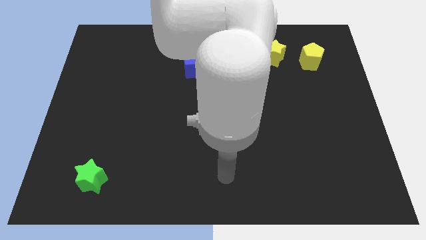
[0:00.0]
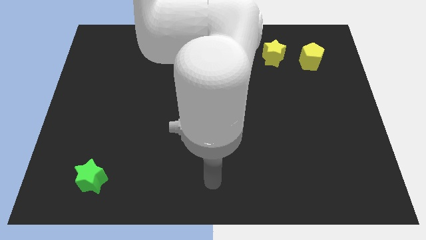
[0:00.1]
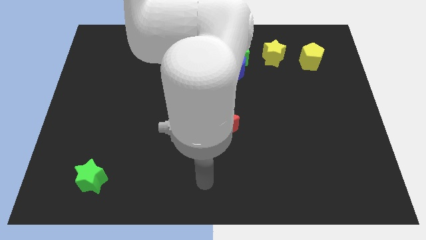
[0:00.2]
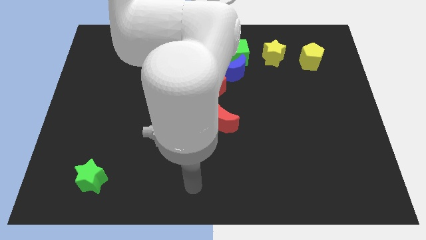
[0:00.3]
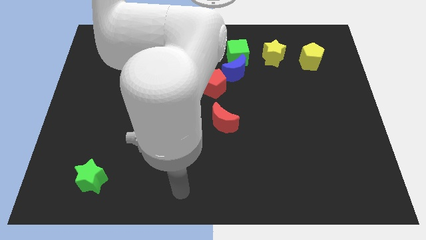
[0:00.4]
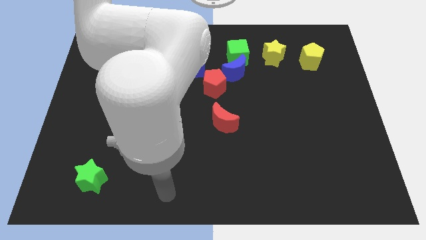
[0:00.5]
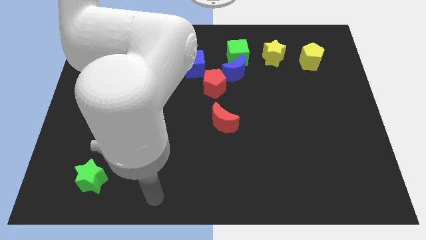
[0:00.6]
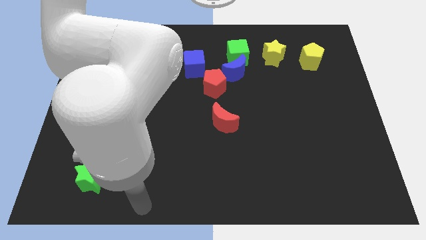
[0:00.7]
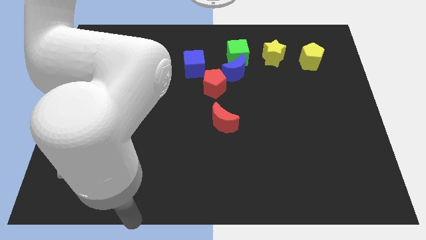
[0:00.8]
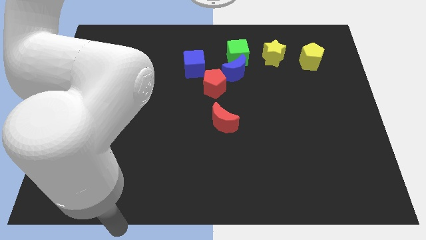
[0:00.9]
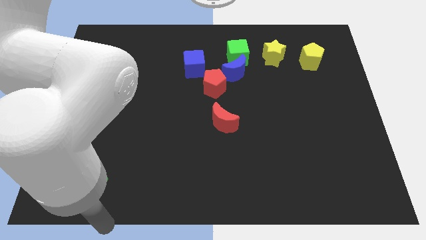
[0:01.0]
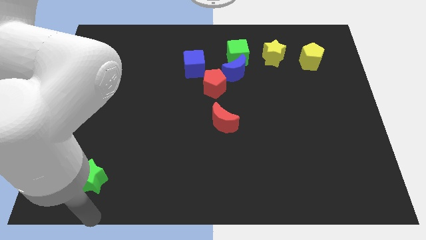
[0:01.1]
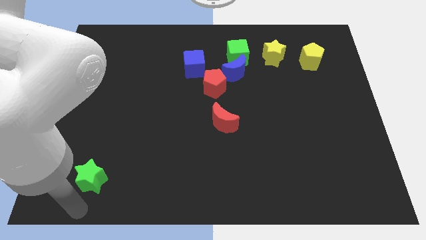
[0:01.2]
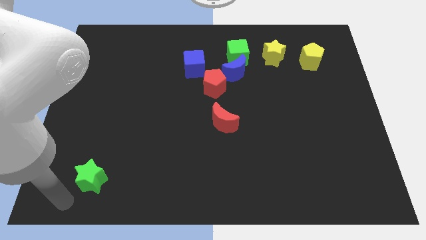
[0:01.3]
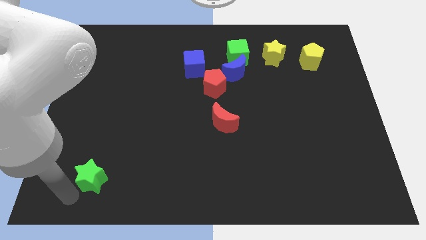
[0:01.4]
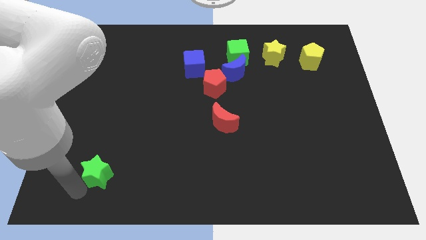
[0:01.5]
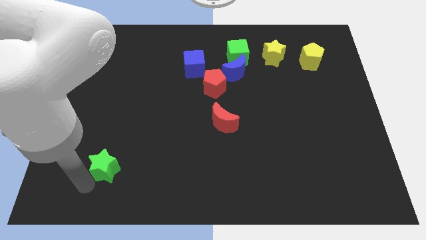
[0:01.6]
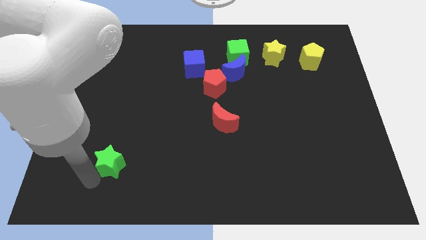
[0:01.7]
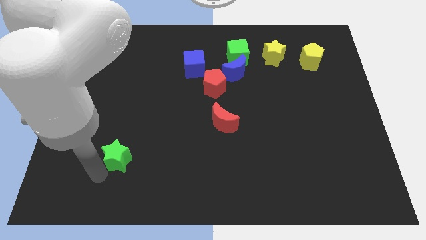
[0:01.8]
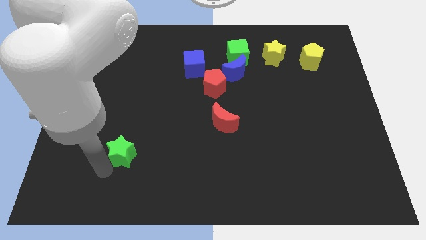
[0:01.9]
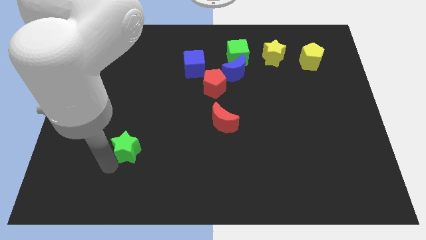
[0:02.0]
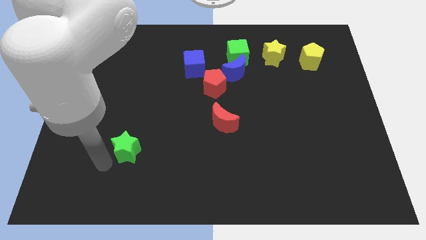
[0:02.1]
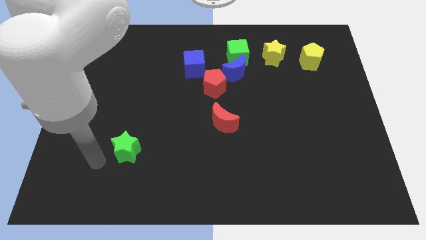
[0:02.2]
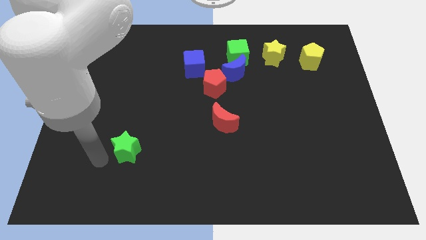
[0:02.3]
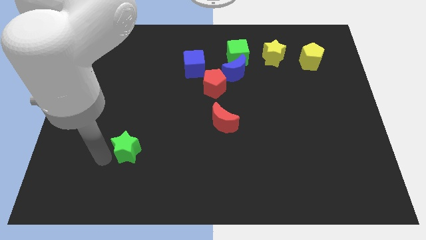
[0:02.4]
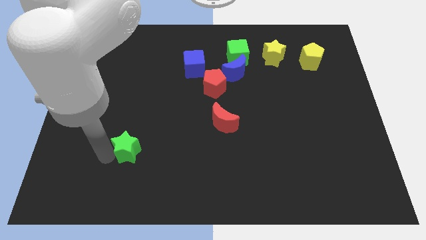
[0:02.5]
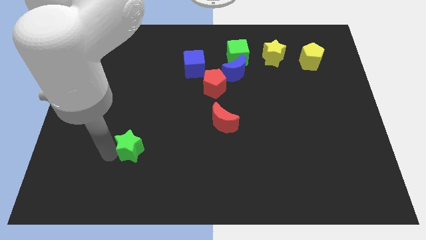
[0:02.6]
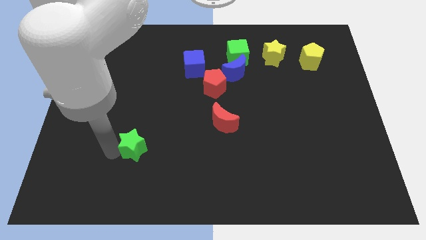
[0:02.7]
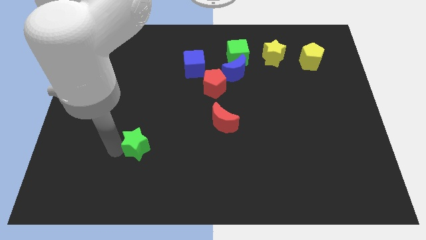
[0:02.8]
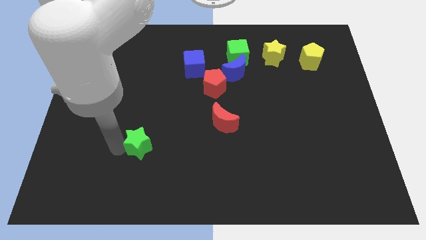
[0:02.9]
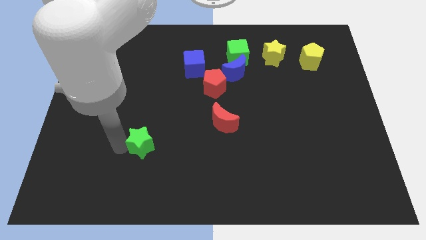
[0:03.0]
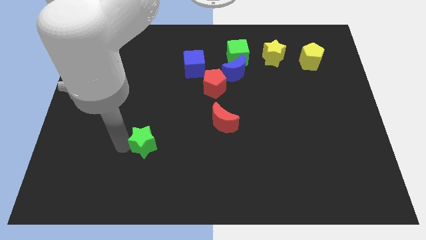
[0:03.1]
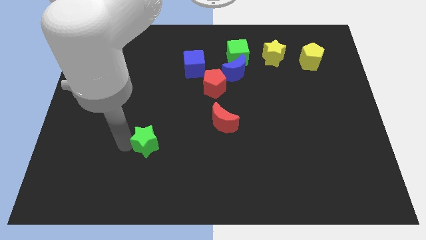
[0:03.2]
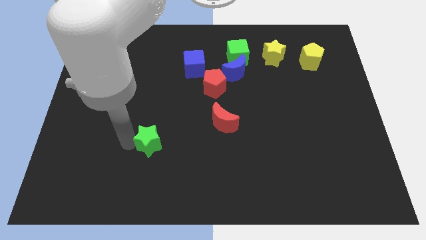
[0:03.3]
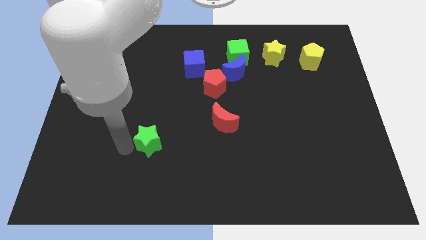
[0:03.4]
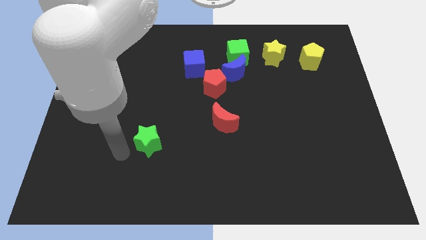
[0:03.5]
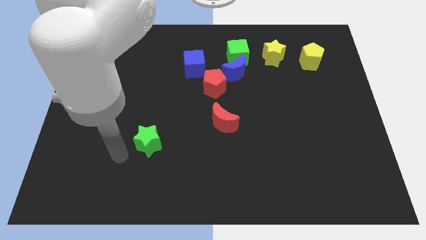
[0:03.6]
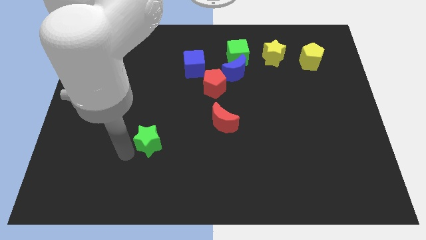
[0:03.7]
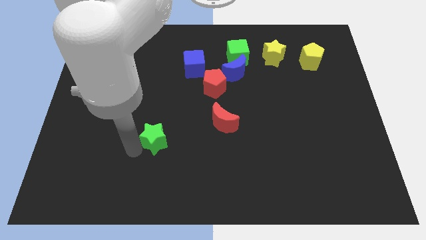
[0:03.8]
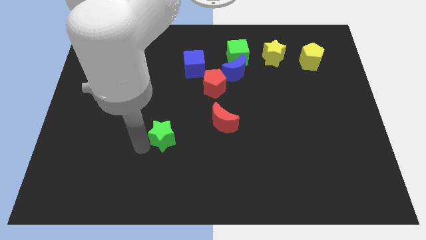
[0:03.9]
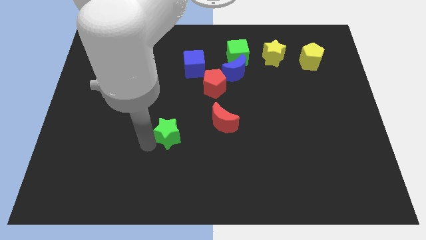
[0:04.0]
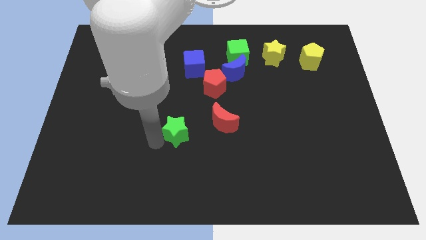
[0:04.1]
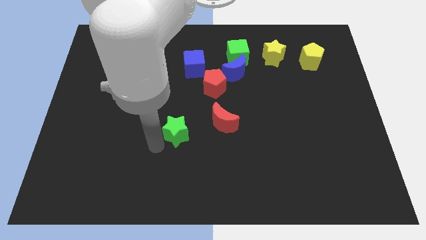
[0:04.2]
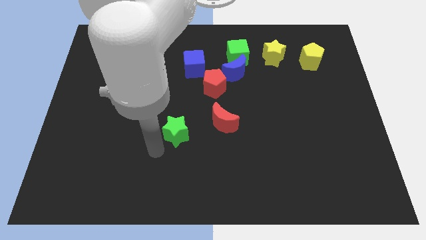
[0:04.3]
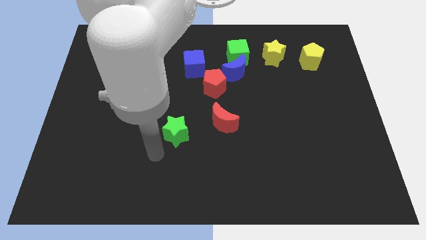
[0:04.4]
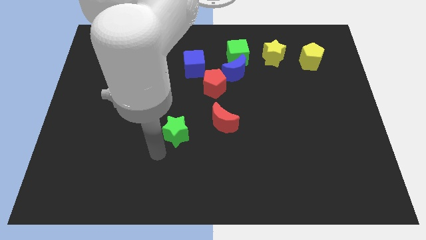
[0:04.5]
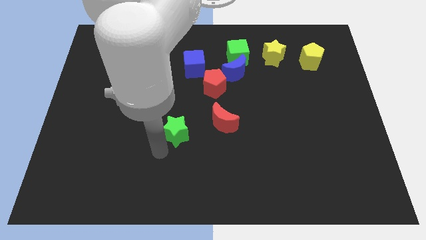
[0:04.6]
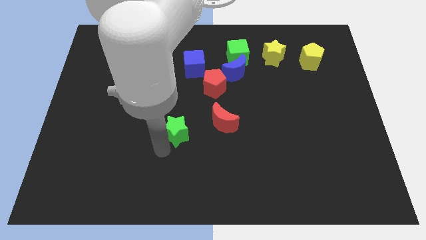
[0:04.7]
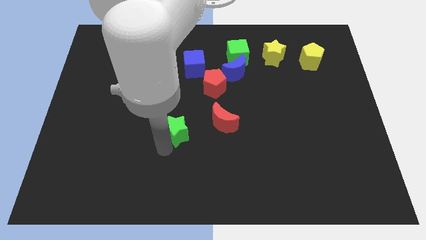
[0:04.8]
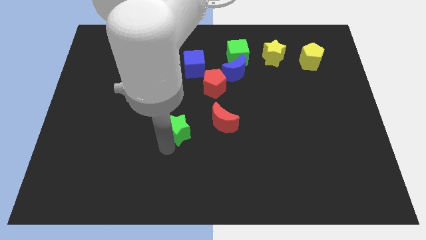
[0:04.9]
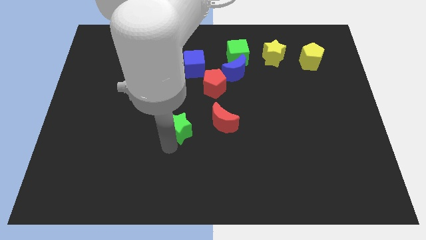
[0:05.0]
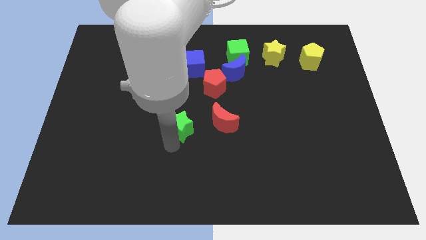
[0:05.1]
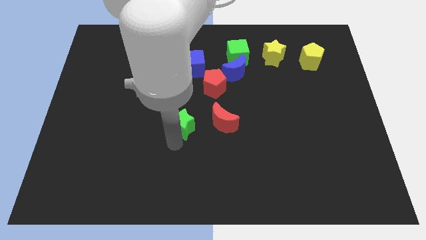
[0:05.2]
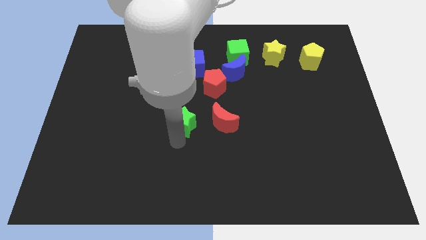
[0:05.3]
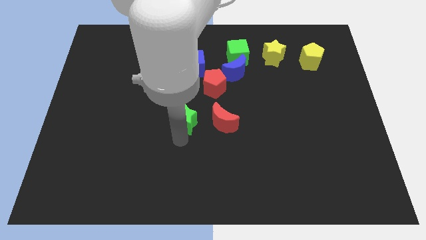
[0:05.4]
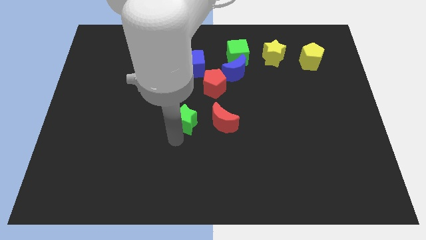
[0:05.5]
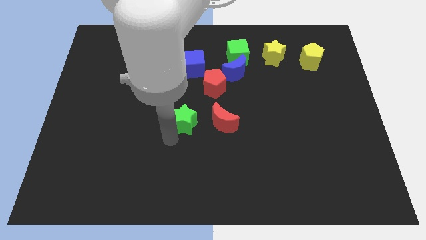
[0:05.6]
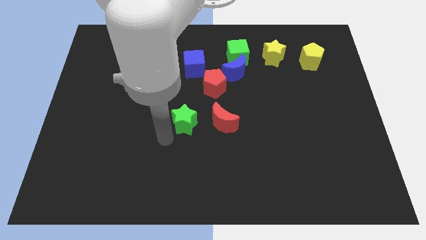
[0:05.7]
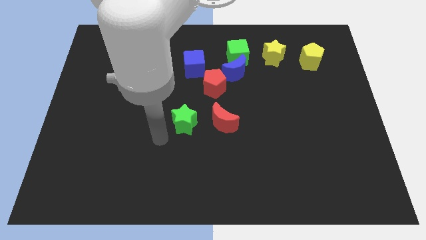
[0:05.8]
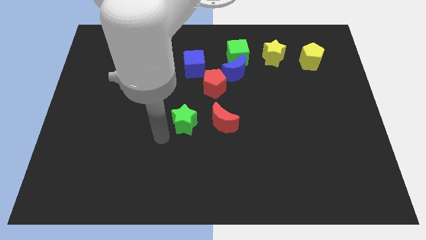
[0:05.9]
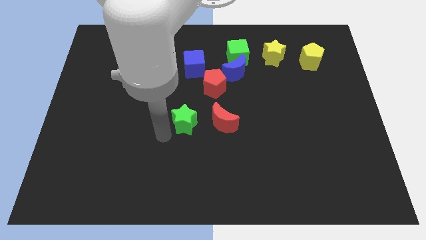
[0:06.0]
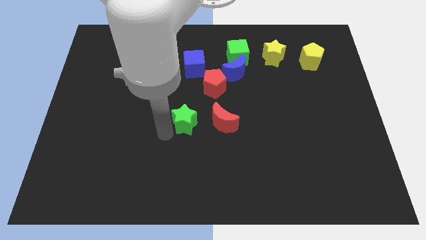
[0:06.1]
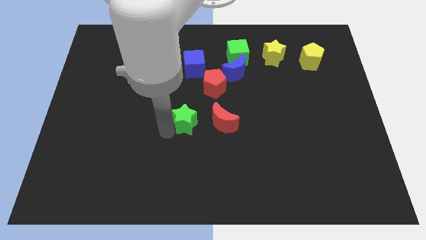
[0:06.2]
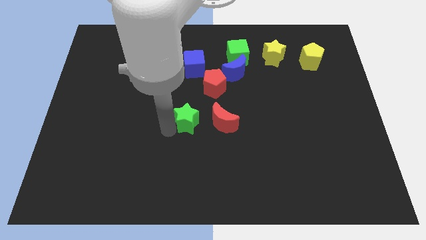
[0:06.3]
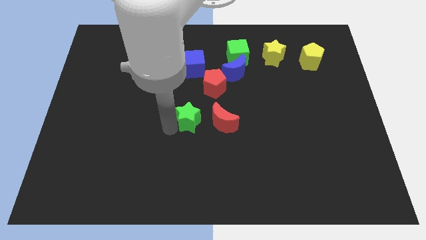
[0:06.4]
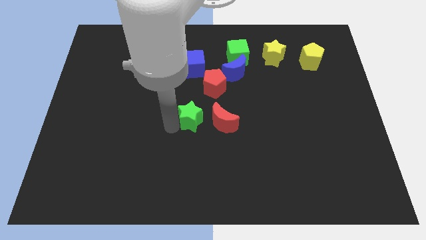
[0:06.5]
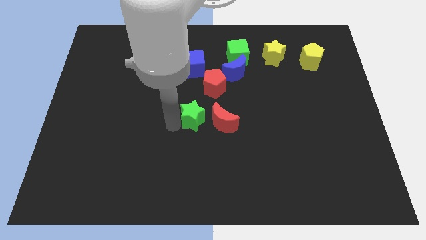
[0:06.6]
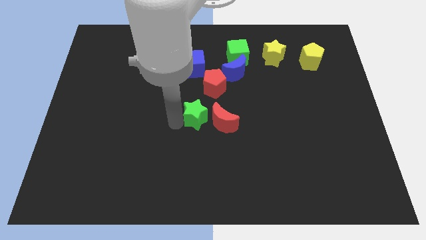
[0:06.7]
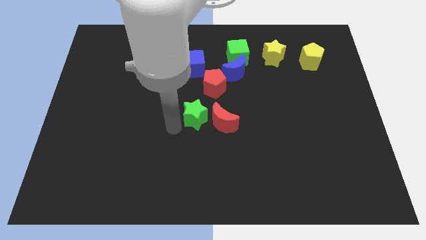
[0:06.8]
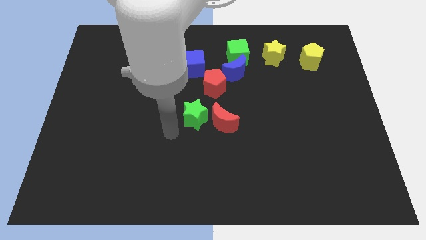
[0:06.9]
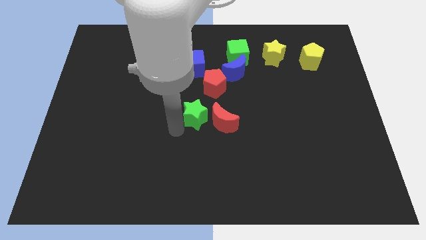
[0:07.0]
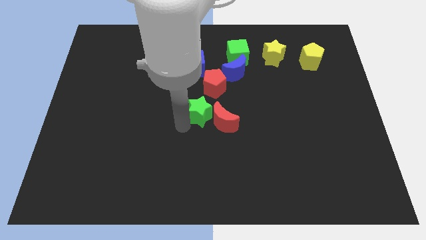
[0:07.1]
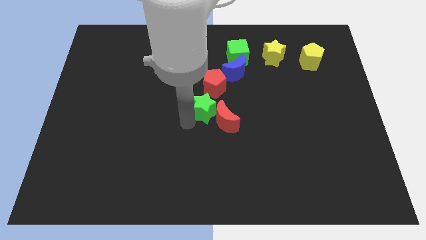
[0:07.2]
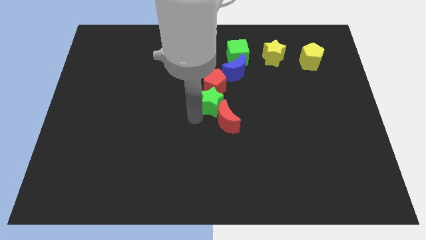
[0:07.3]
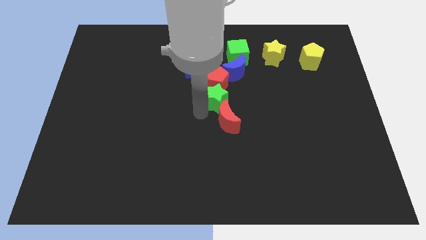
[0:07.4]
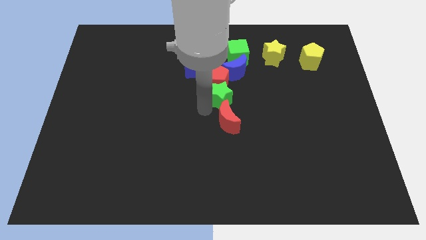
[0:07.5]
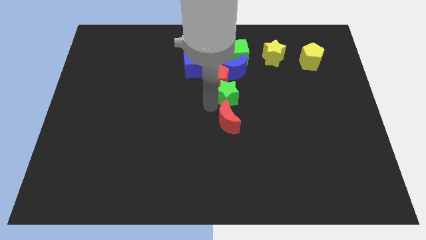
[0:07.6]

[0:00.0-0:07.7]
put the green star to the bottom side of the green cube
